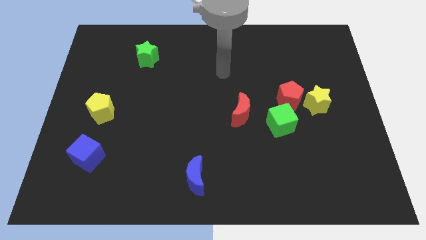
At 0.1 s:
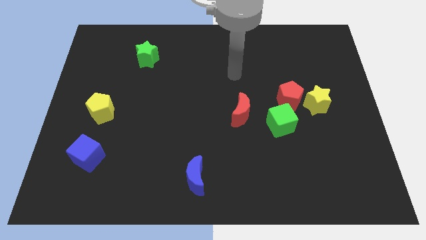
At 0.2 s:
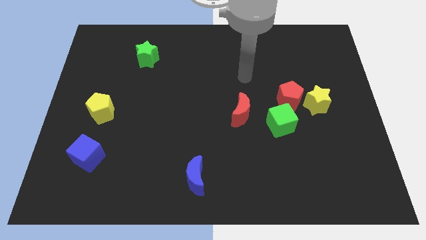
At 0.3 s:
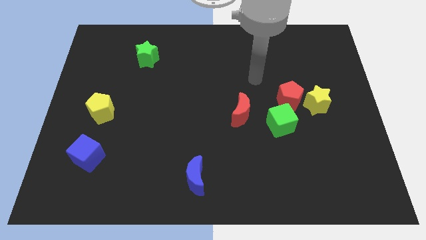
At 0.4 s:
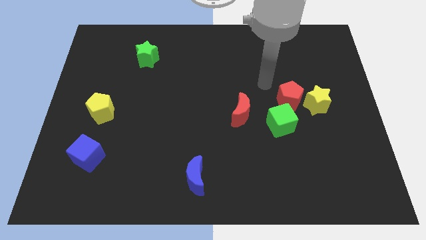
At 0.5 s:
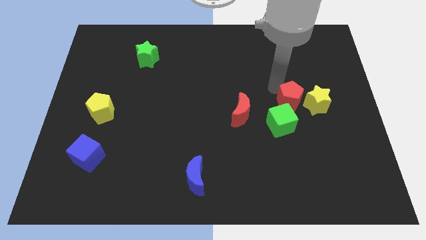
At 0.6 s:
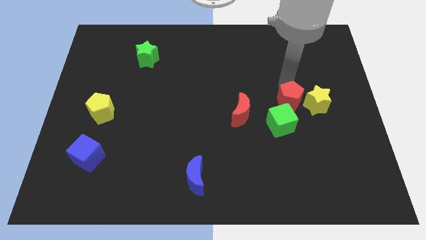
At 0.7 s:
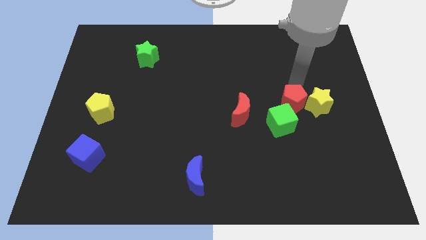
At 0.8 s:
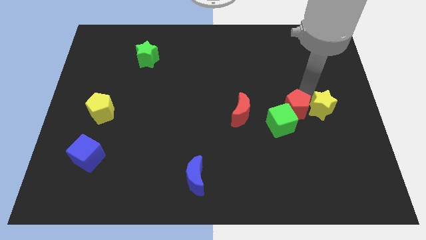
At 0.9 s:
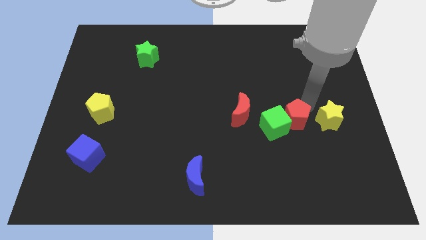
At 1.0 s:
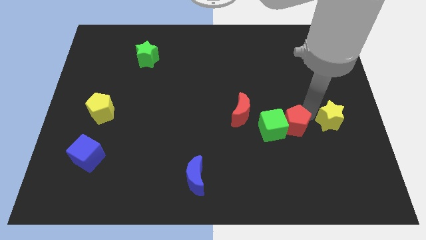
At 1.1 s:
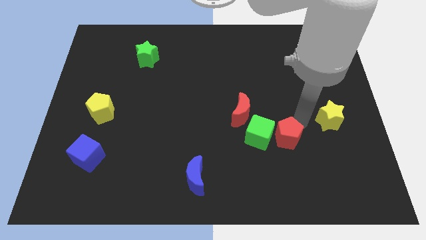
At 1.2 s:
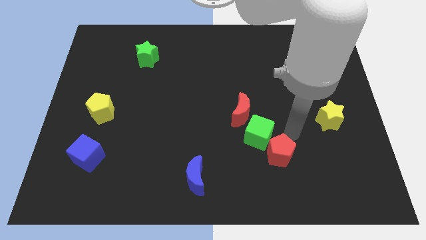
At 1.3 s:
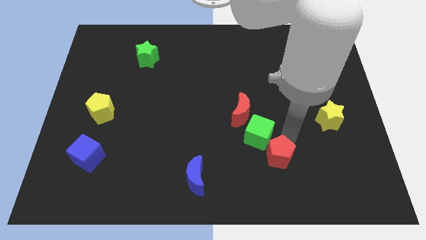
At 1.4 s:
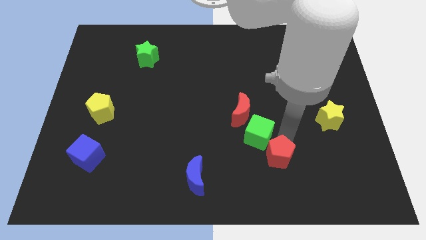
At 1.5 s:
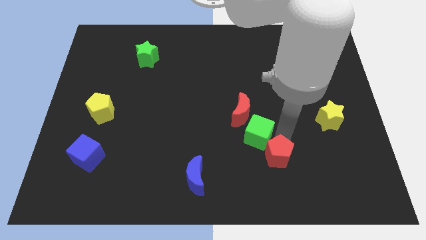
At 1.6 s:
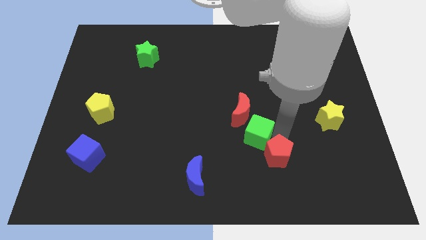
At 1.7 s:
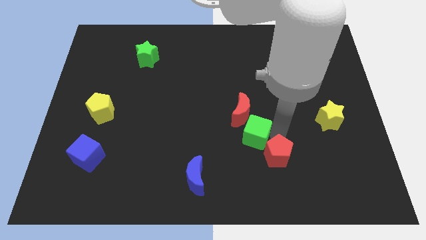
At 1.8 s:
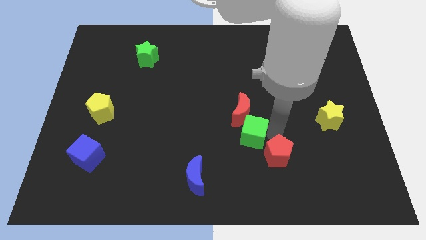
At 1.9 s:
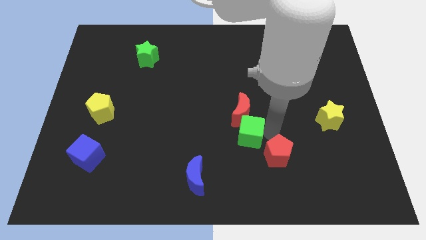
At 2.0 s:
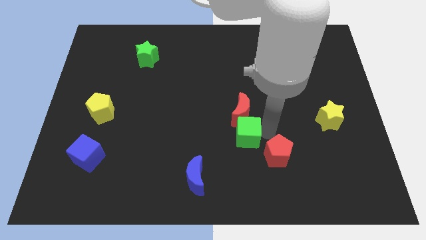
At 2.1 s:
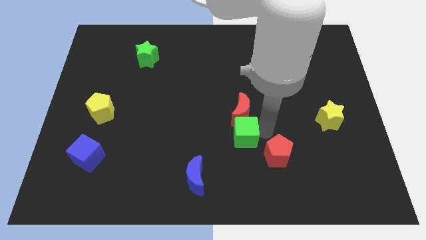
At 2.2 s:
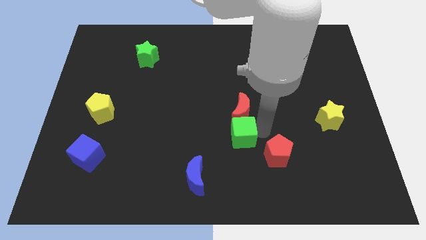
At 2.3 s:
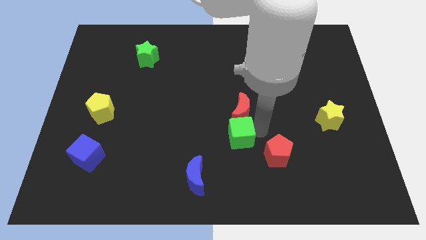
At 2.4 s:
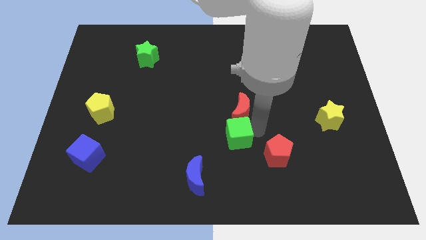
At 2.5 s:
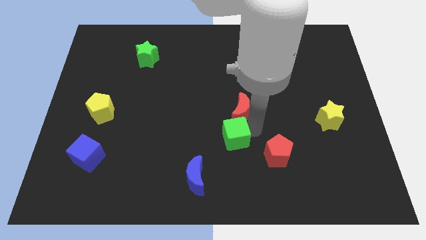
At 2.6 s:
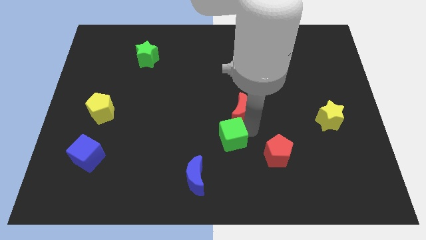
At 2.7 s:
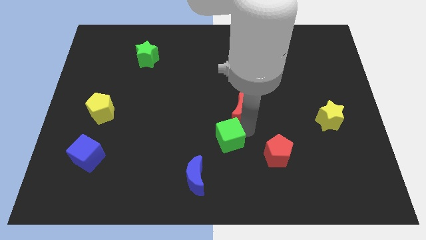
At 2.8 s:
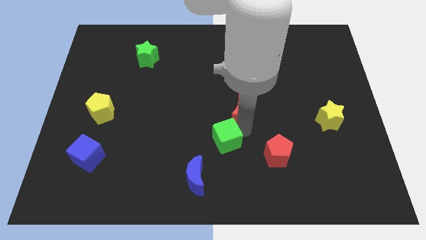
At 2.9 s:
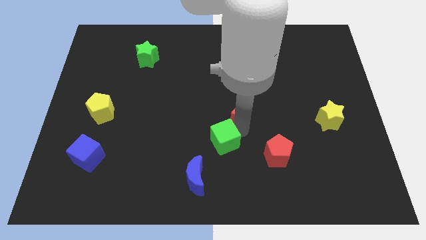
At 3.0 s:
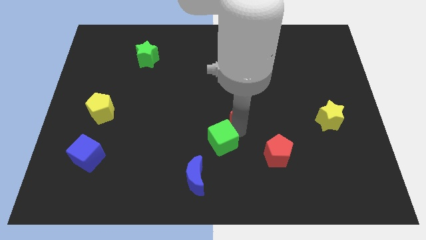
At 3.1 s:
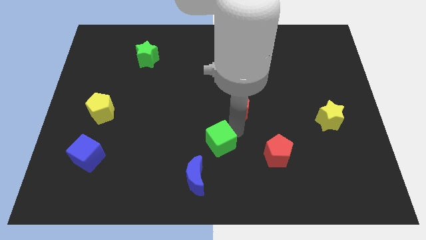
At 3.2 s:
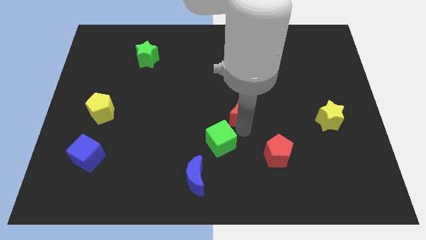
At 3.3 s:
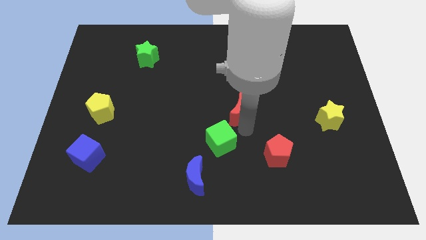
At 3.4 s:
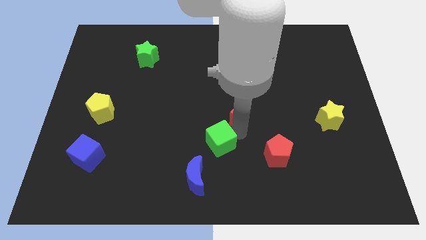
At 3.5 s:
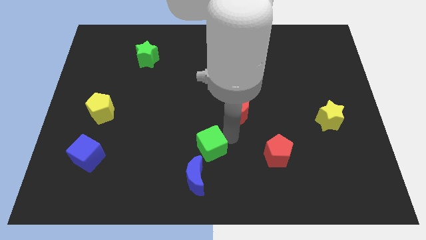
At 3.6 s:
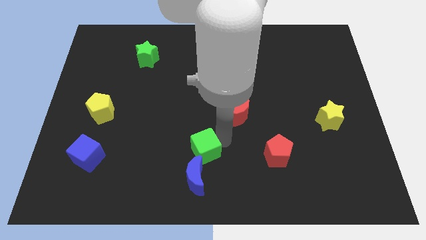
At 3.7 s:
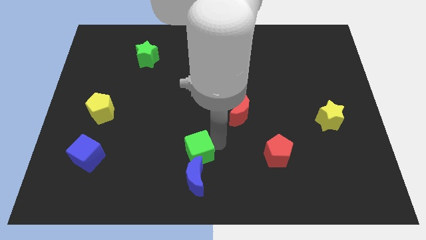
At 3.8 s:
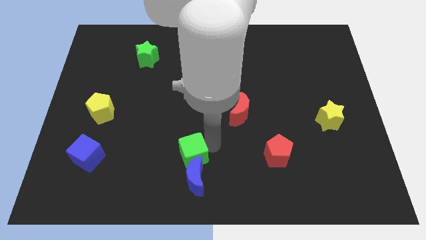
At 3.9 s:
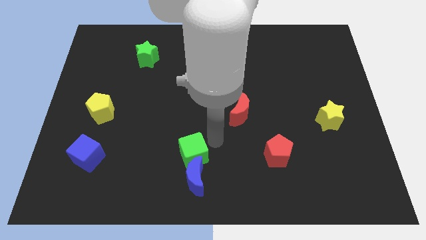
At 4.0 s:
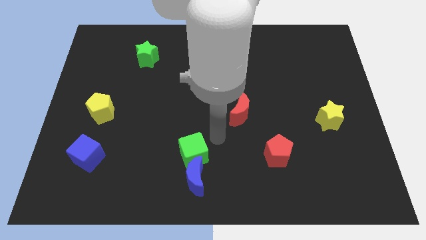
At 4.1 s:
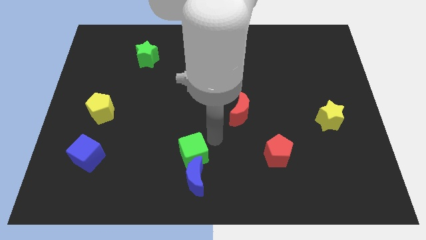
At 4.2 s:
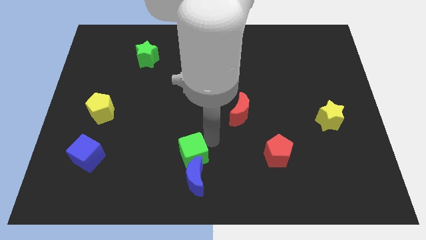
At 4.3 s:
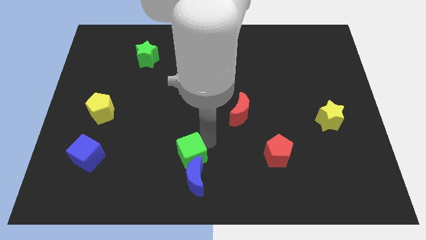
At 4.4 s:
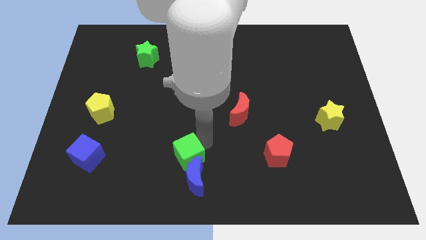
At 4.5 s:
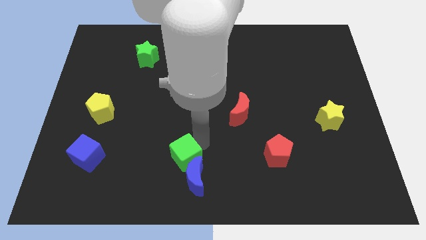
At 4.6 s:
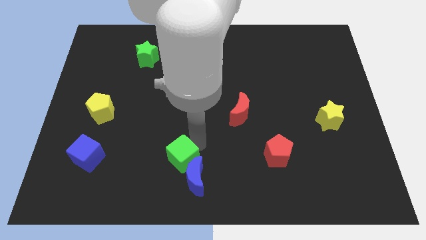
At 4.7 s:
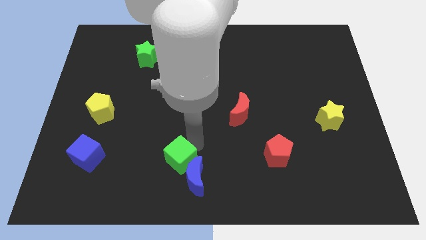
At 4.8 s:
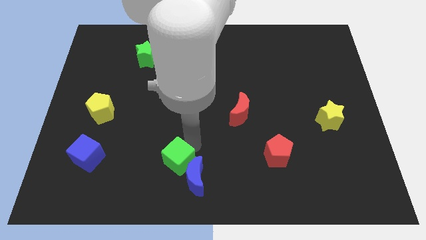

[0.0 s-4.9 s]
move the green cube left of the blue moon

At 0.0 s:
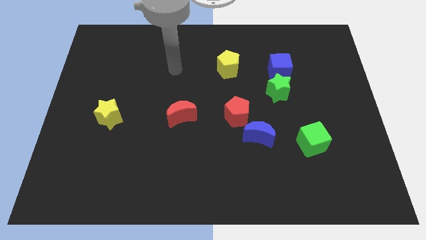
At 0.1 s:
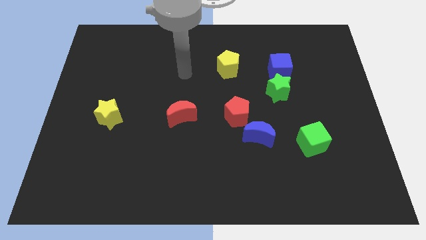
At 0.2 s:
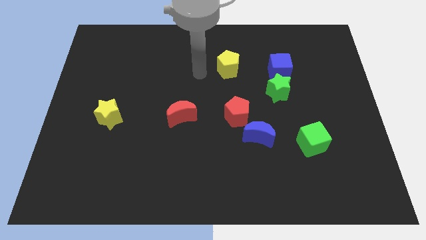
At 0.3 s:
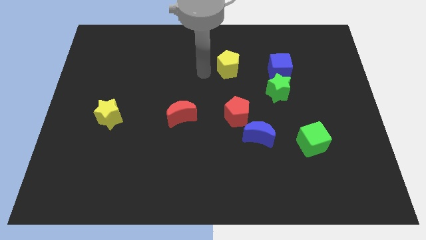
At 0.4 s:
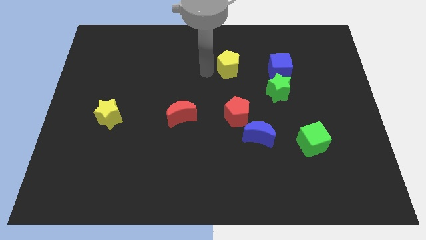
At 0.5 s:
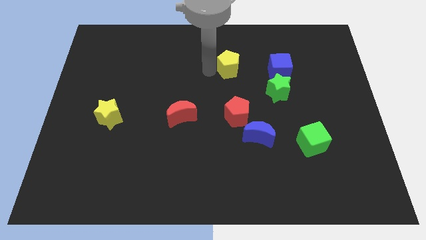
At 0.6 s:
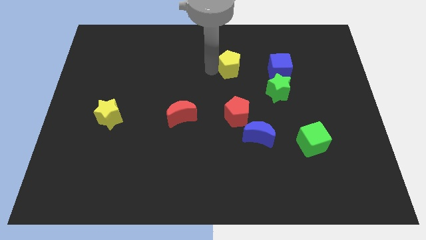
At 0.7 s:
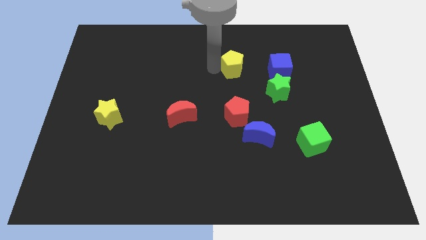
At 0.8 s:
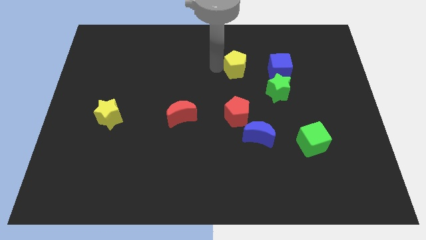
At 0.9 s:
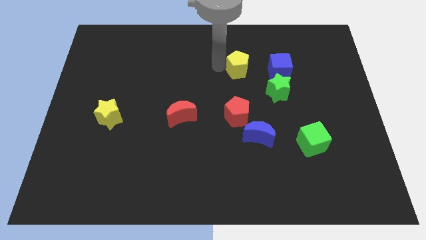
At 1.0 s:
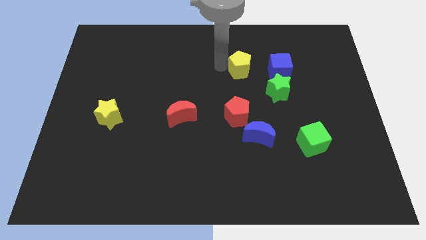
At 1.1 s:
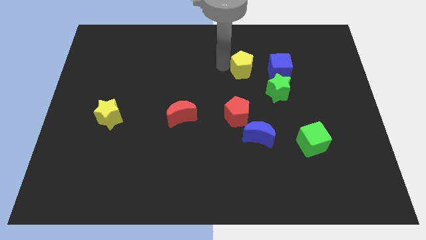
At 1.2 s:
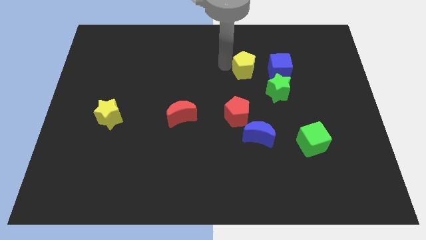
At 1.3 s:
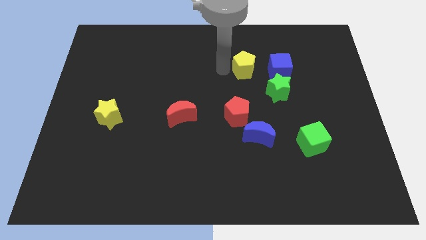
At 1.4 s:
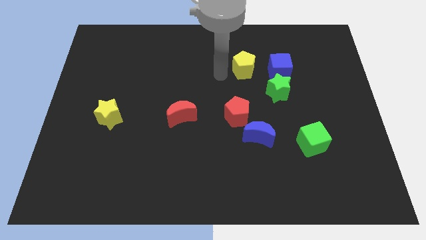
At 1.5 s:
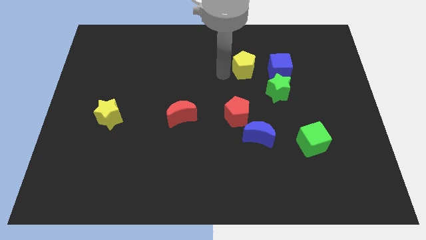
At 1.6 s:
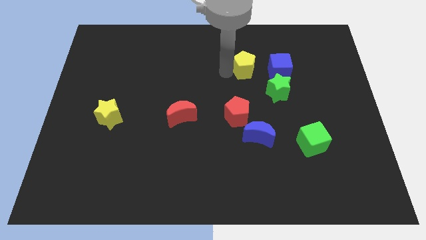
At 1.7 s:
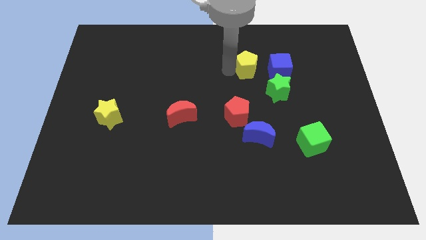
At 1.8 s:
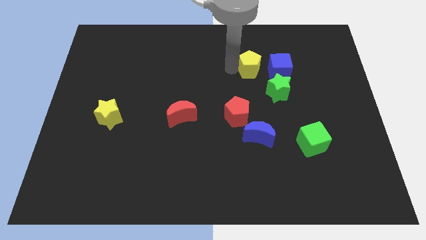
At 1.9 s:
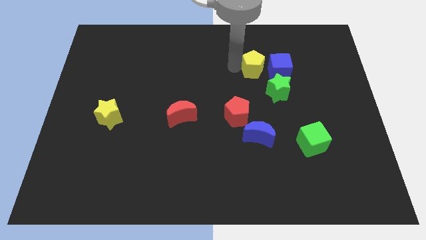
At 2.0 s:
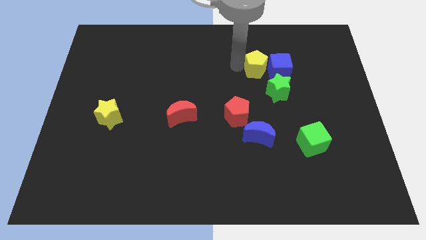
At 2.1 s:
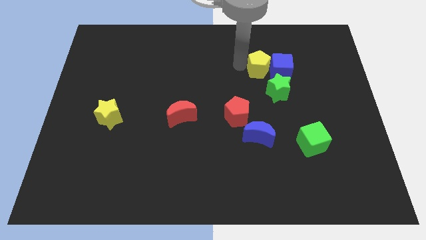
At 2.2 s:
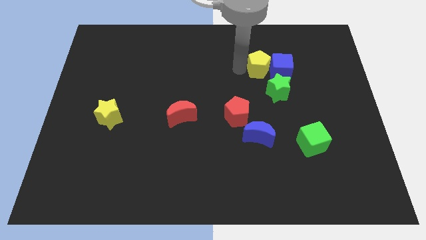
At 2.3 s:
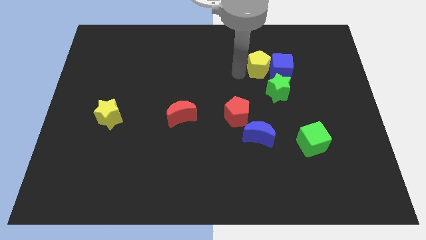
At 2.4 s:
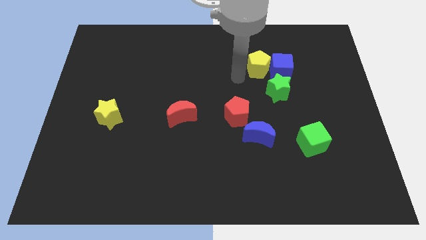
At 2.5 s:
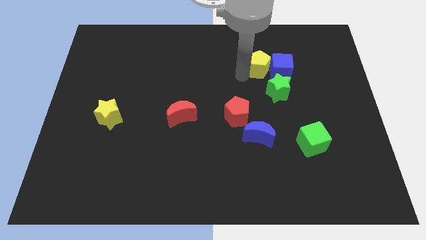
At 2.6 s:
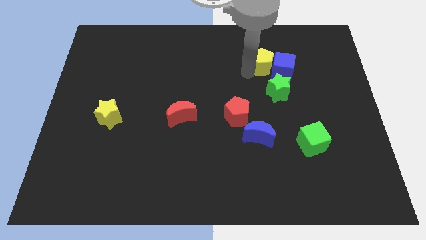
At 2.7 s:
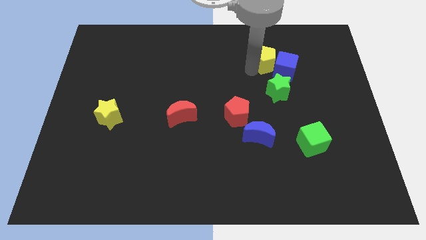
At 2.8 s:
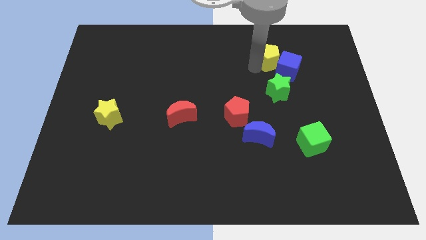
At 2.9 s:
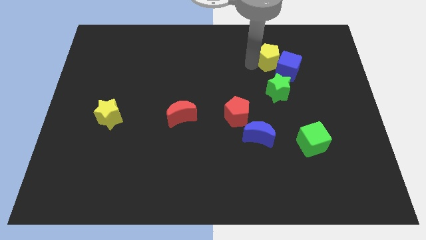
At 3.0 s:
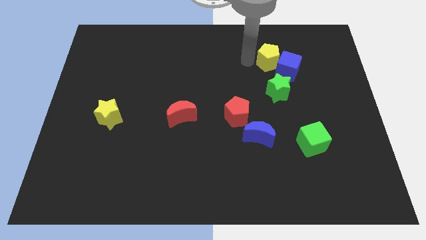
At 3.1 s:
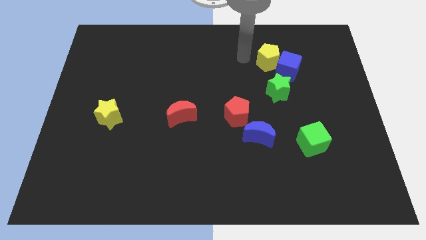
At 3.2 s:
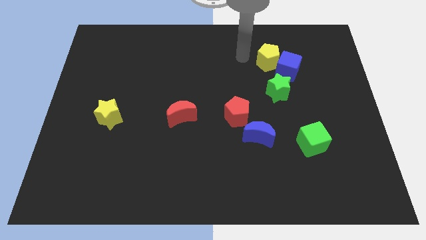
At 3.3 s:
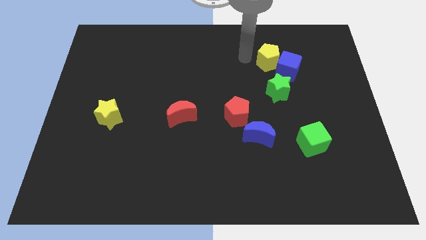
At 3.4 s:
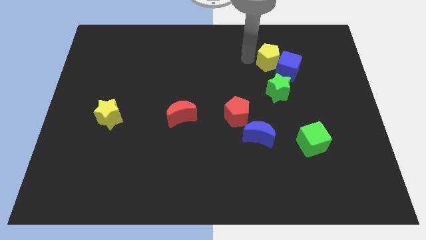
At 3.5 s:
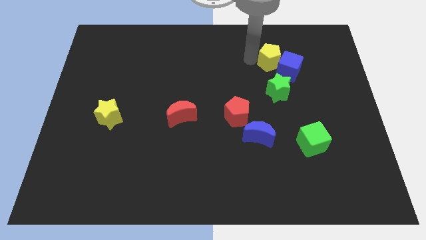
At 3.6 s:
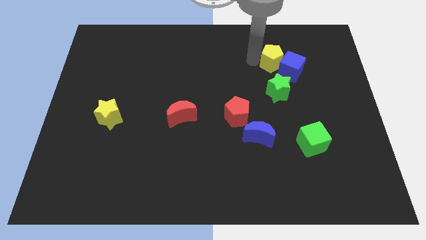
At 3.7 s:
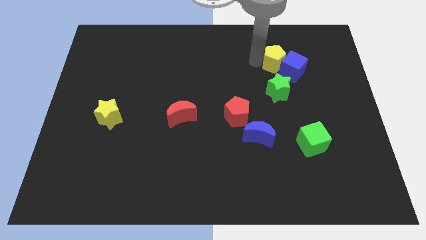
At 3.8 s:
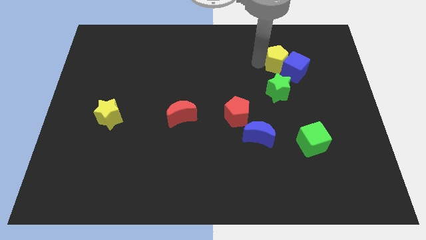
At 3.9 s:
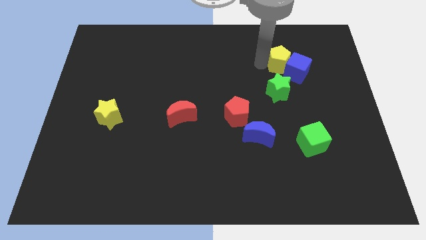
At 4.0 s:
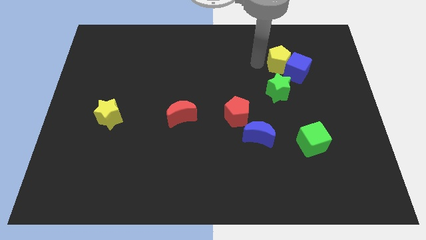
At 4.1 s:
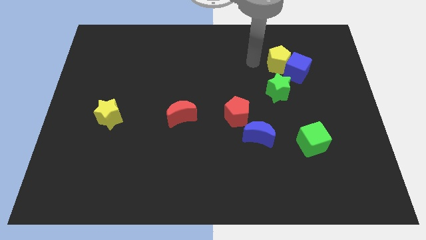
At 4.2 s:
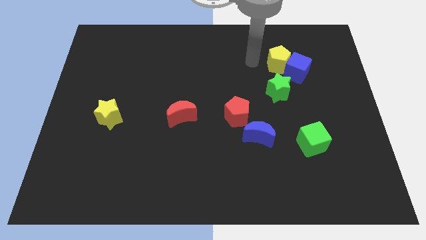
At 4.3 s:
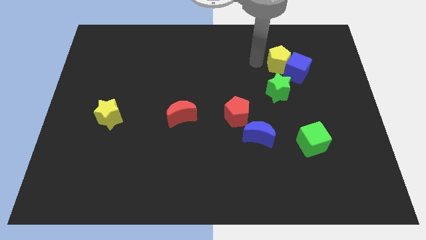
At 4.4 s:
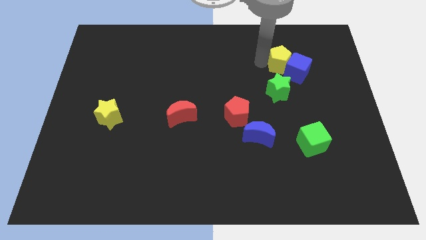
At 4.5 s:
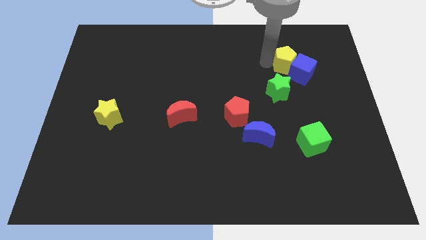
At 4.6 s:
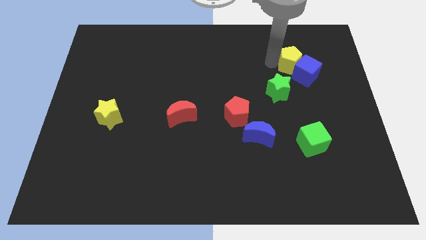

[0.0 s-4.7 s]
push the yellow pentagon to the top right of the green star
